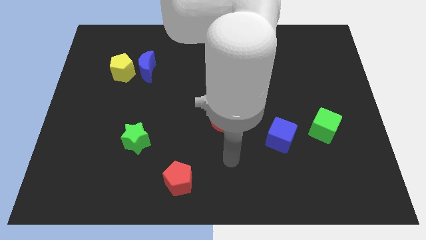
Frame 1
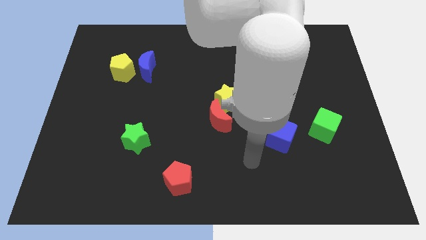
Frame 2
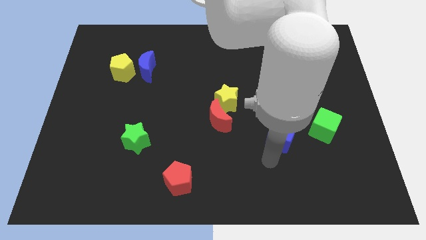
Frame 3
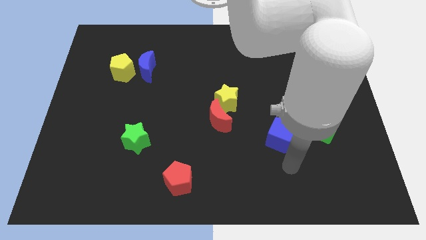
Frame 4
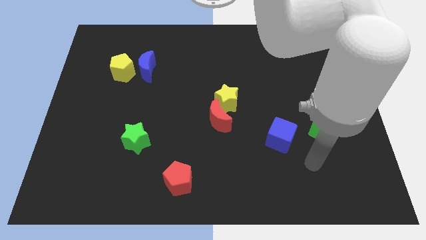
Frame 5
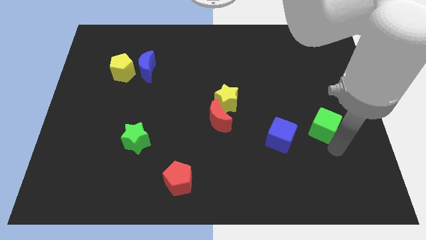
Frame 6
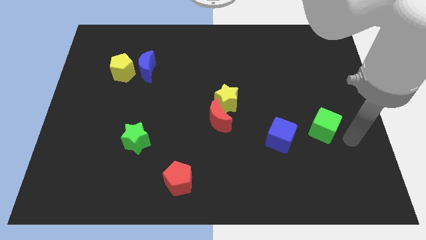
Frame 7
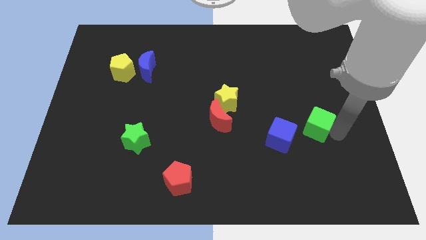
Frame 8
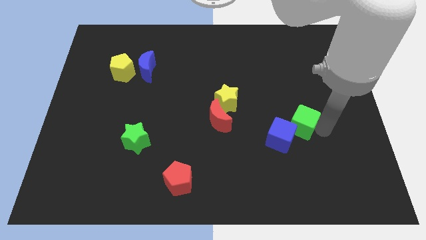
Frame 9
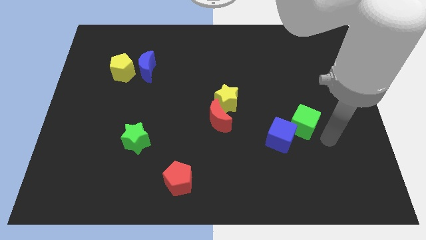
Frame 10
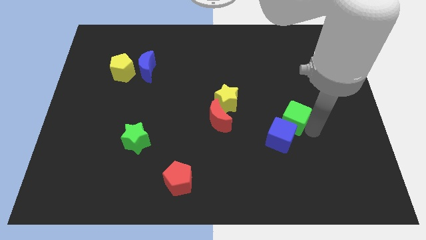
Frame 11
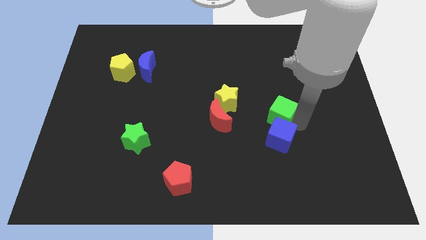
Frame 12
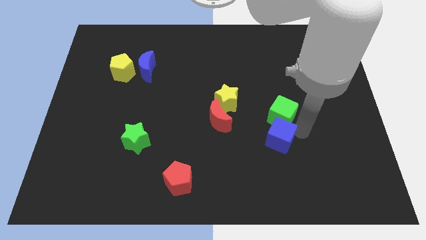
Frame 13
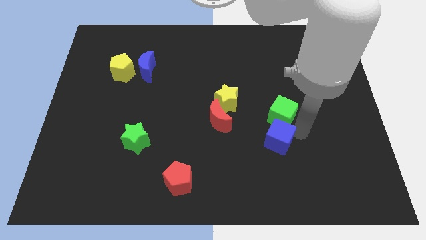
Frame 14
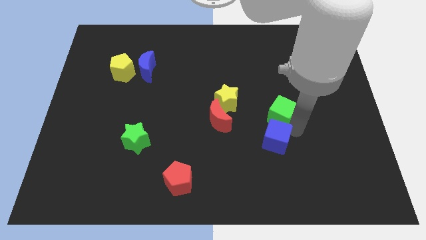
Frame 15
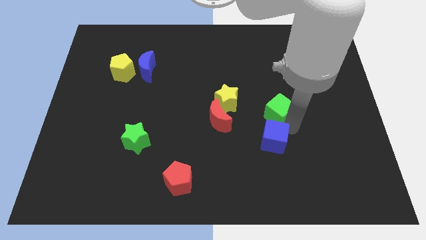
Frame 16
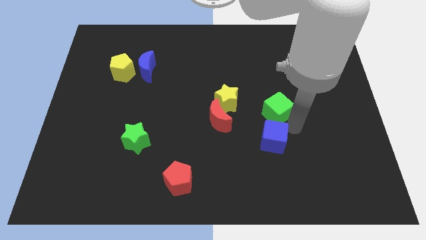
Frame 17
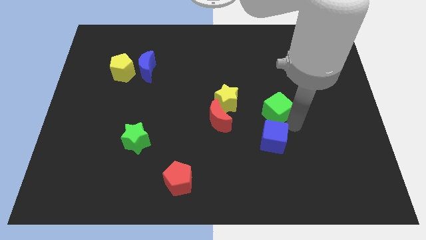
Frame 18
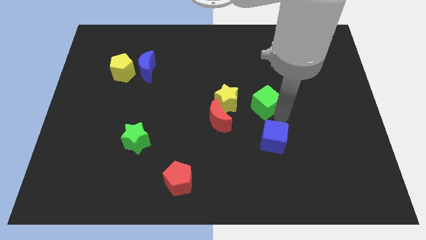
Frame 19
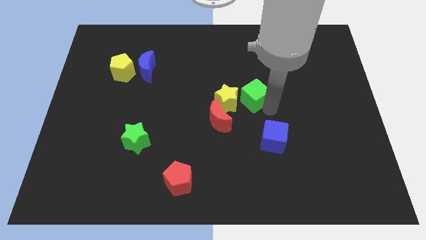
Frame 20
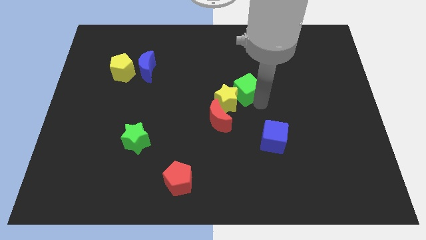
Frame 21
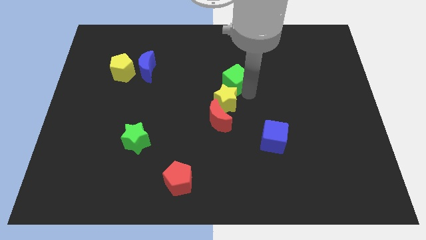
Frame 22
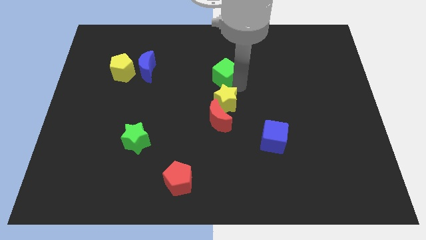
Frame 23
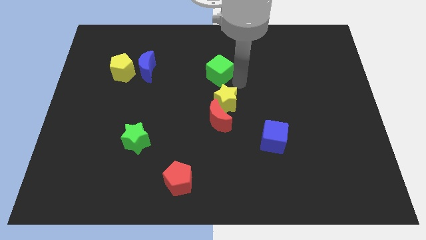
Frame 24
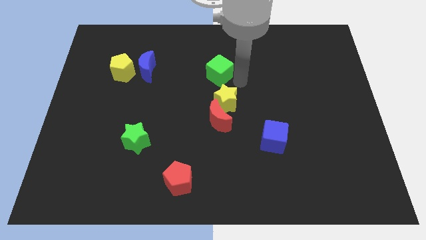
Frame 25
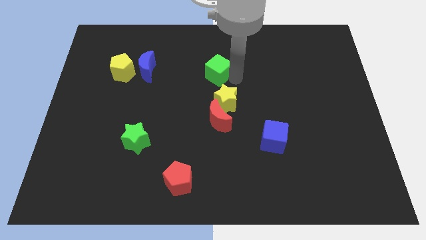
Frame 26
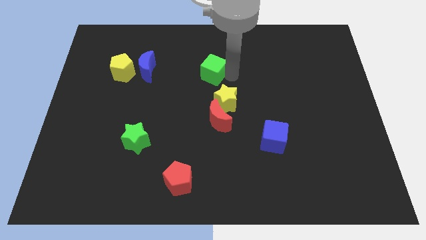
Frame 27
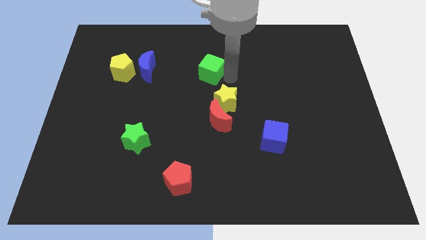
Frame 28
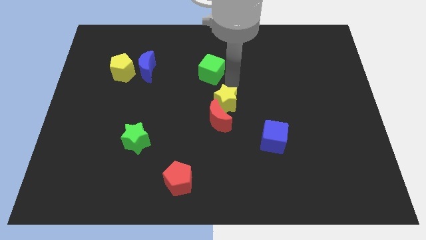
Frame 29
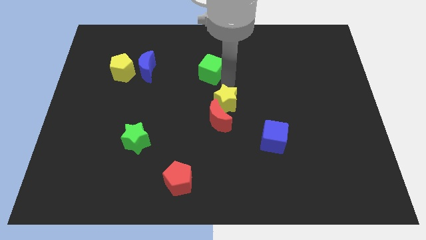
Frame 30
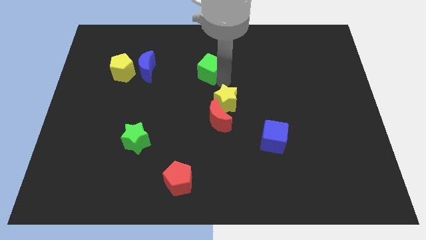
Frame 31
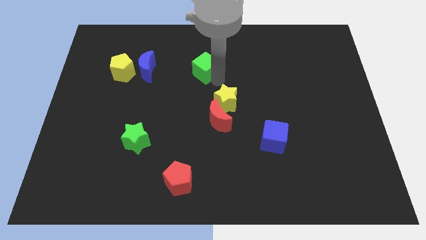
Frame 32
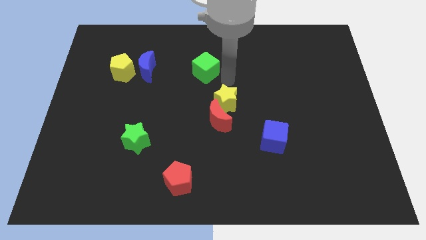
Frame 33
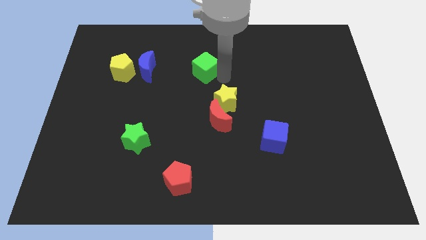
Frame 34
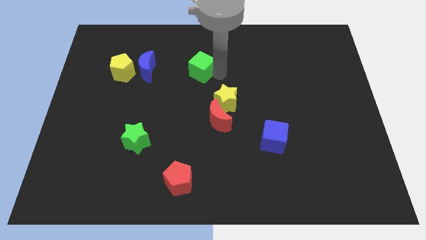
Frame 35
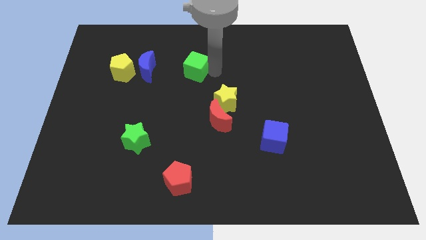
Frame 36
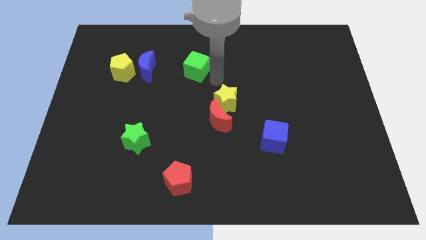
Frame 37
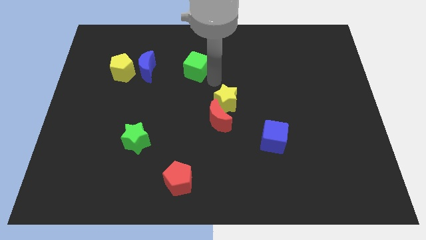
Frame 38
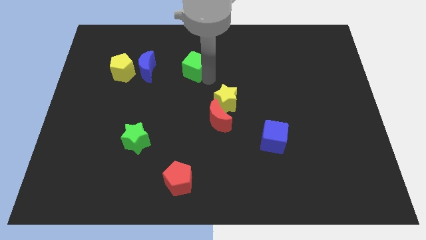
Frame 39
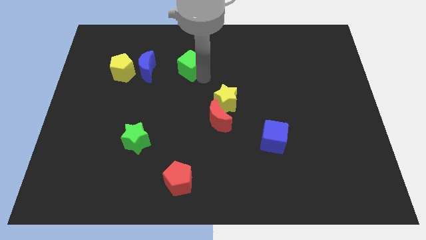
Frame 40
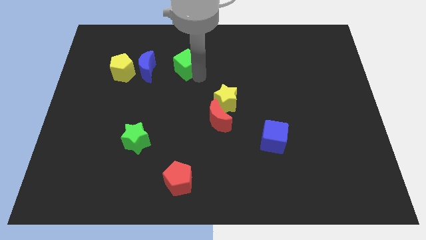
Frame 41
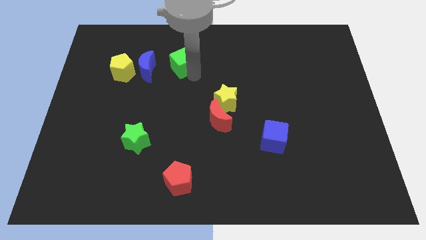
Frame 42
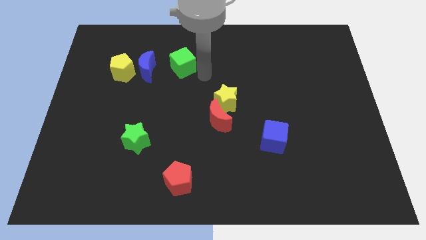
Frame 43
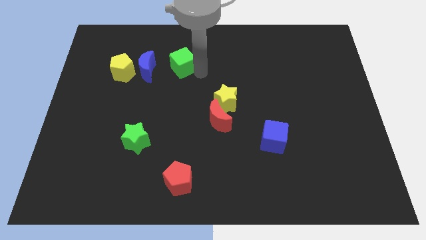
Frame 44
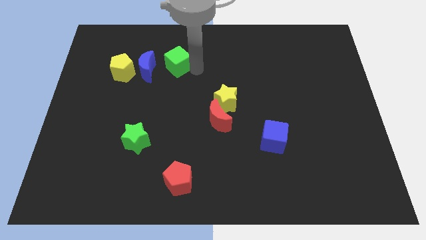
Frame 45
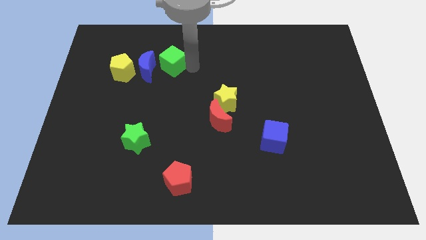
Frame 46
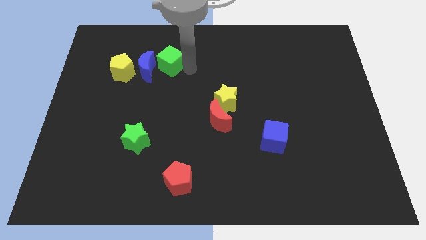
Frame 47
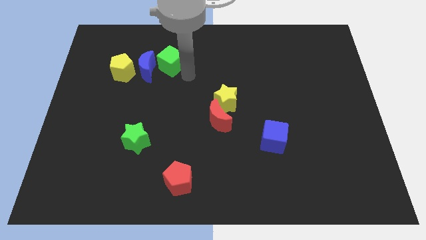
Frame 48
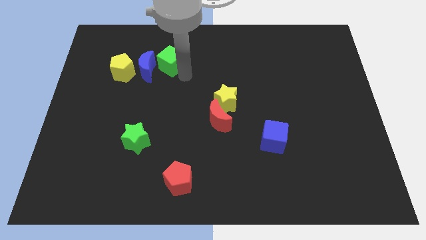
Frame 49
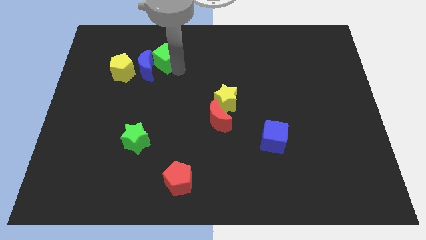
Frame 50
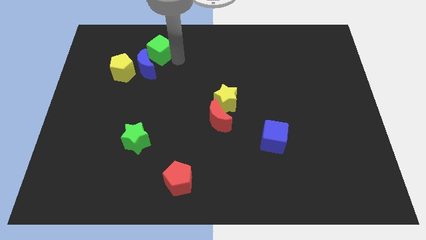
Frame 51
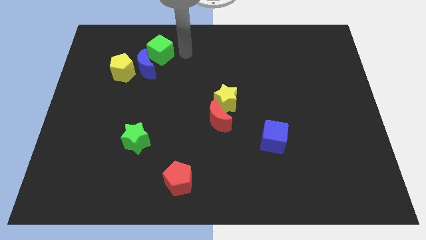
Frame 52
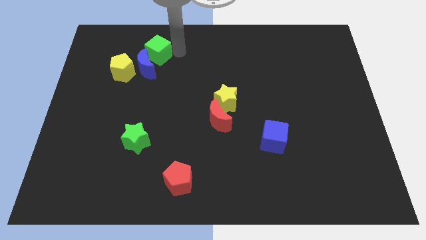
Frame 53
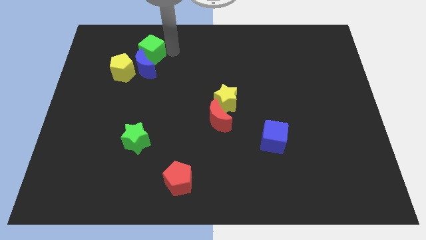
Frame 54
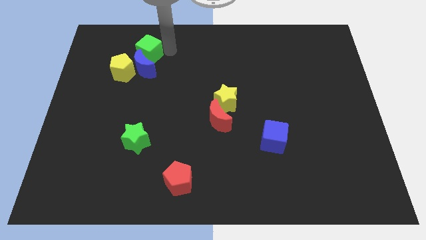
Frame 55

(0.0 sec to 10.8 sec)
move the green cube to the top left side of the blue moon

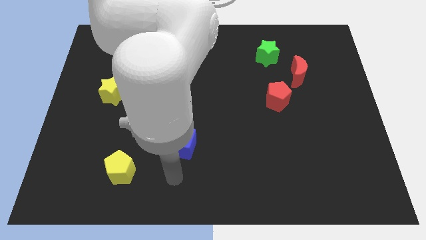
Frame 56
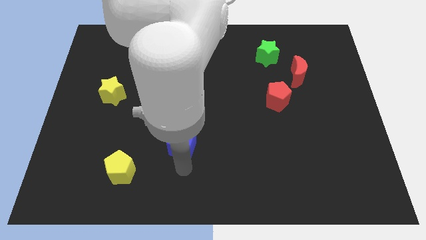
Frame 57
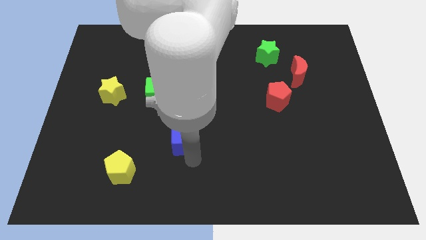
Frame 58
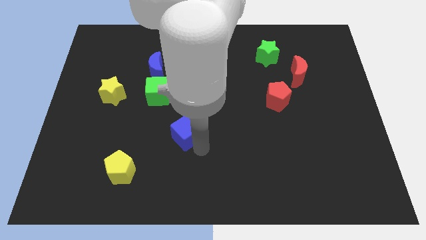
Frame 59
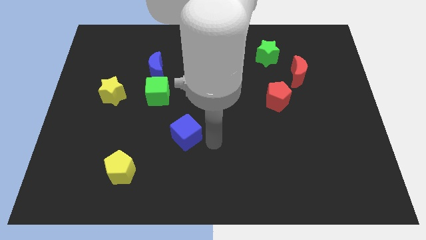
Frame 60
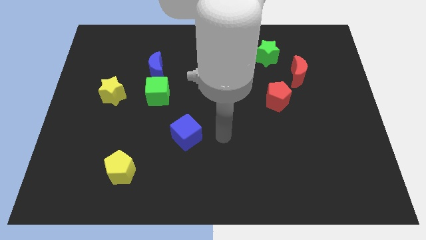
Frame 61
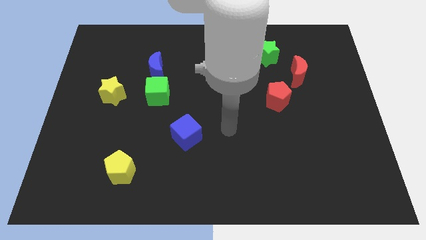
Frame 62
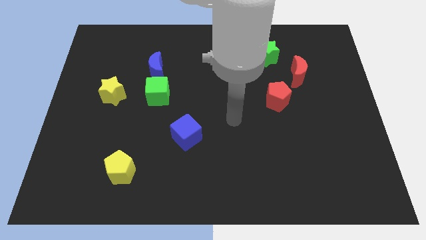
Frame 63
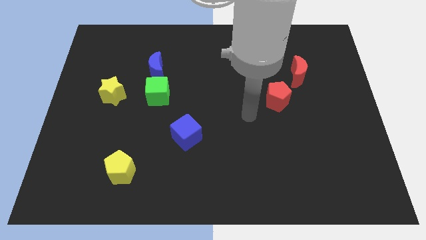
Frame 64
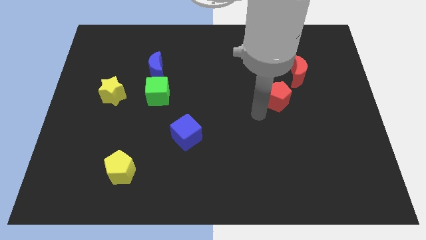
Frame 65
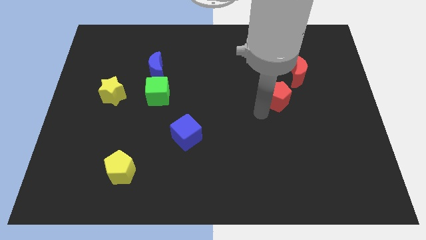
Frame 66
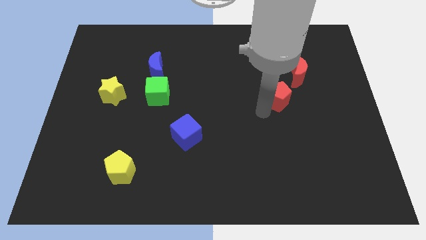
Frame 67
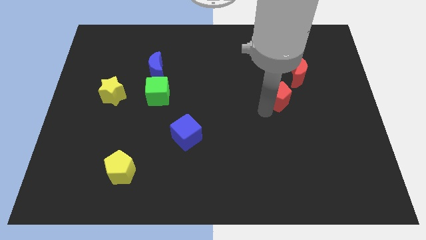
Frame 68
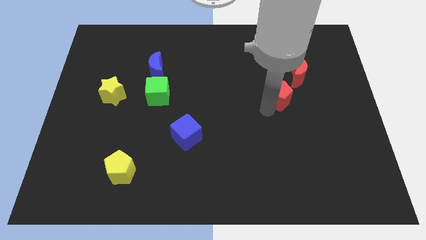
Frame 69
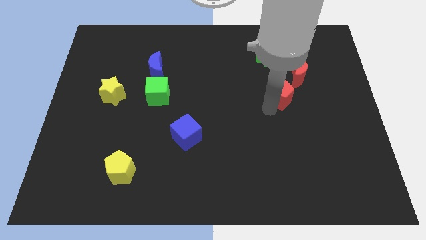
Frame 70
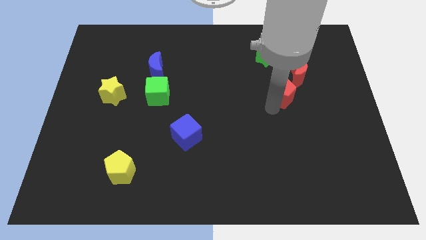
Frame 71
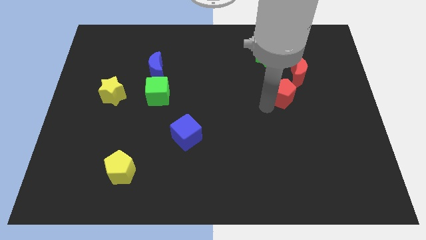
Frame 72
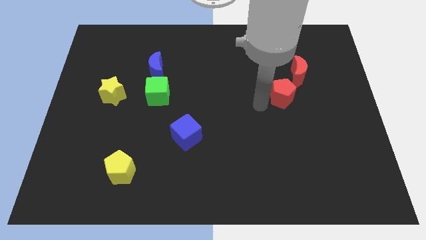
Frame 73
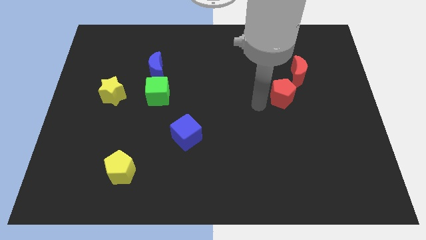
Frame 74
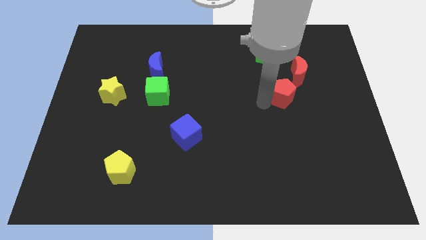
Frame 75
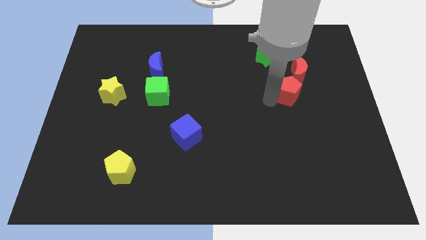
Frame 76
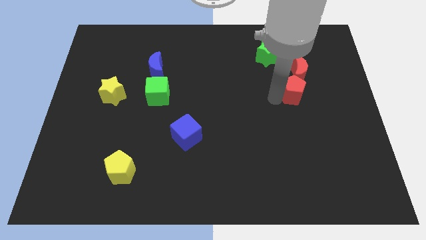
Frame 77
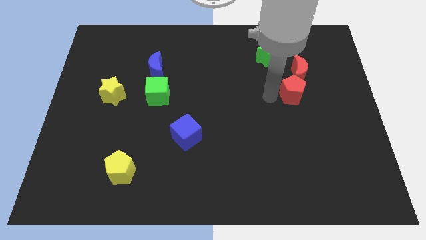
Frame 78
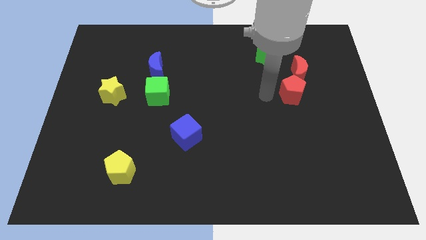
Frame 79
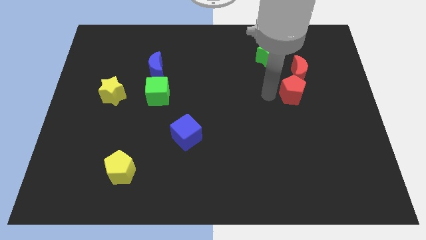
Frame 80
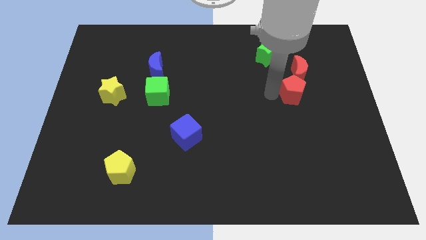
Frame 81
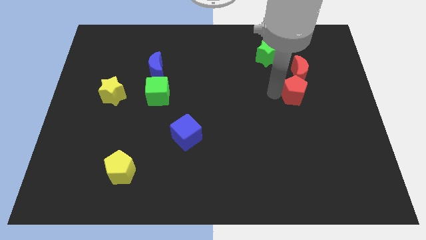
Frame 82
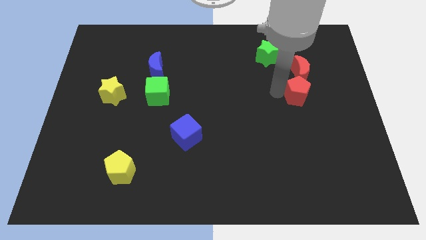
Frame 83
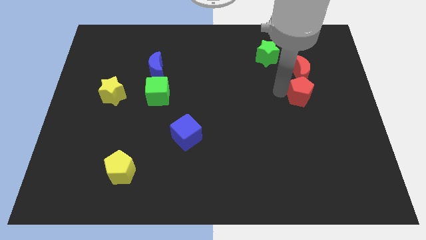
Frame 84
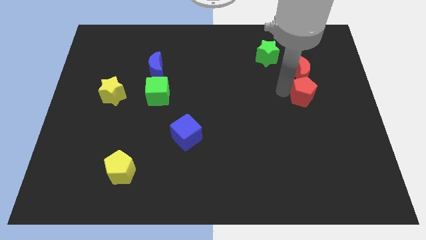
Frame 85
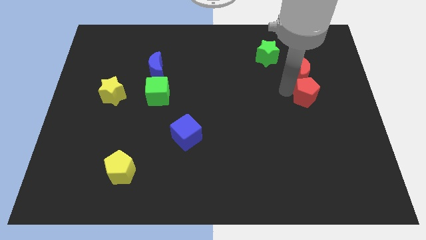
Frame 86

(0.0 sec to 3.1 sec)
put the red pentagon to the bottom right side of the red moon
